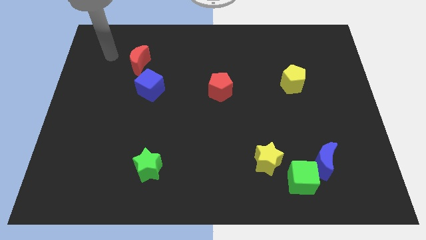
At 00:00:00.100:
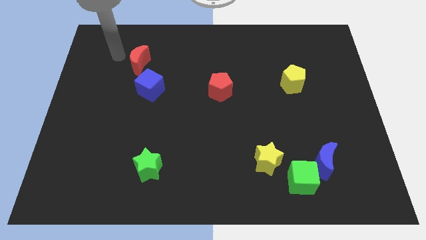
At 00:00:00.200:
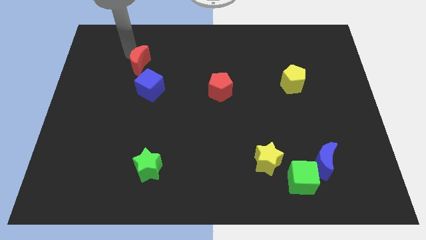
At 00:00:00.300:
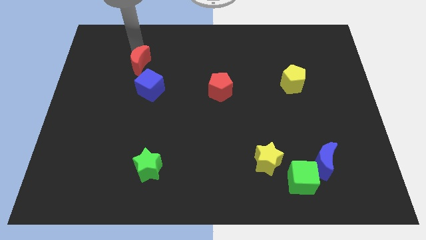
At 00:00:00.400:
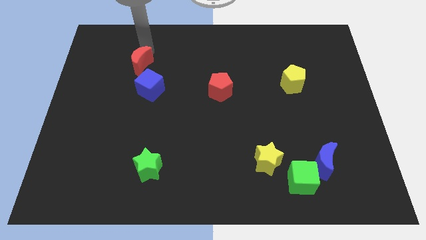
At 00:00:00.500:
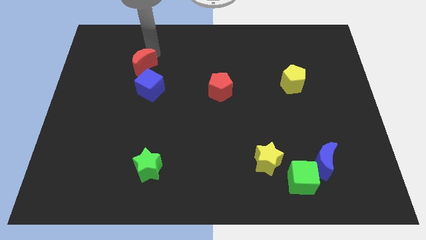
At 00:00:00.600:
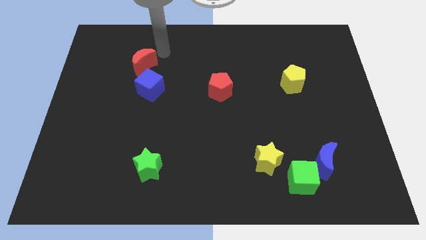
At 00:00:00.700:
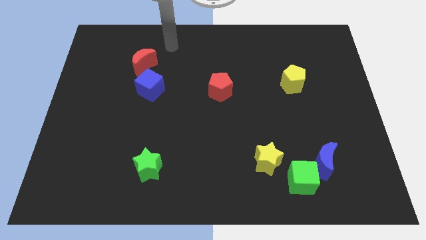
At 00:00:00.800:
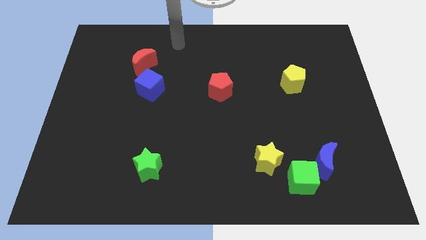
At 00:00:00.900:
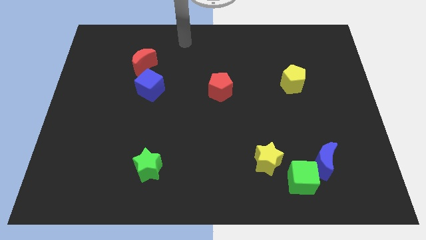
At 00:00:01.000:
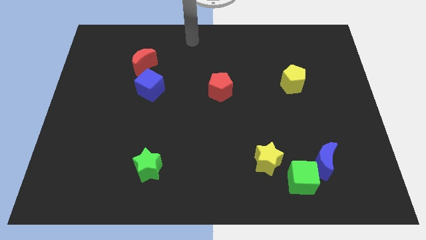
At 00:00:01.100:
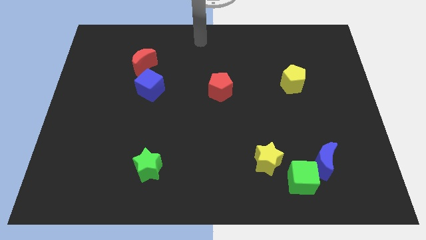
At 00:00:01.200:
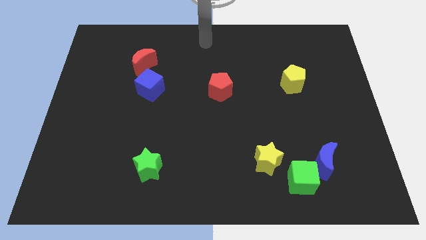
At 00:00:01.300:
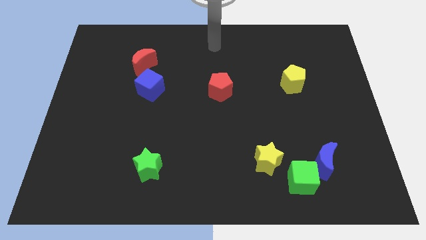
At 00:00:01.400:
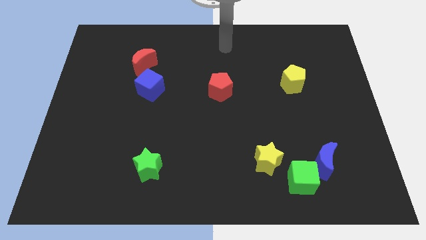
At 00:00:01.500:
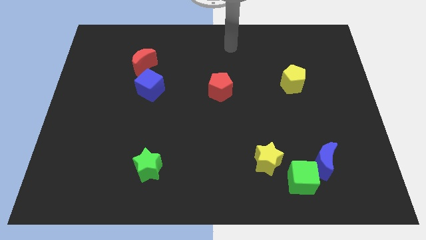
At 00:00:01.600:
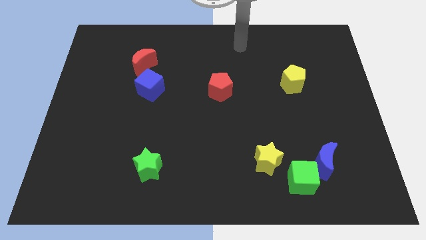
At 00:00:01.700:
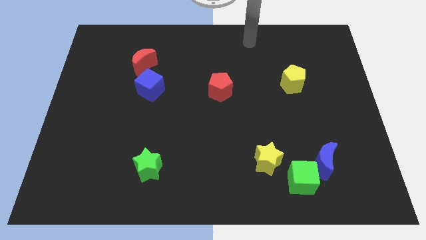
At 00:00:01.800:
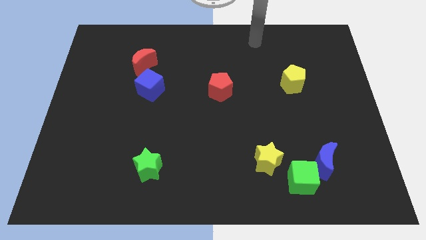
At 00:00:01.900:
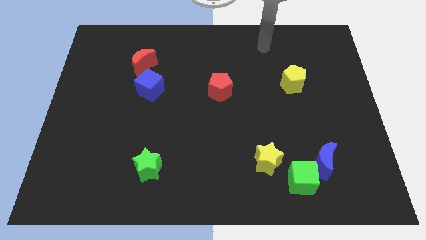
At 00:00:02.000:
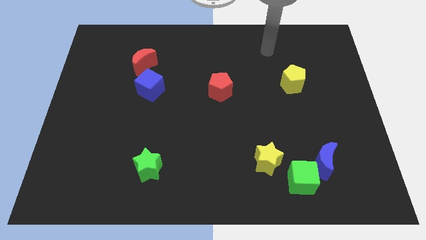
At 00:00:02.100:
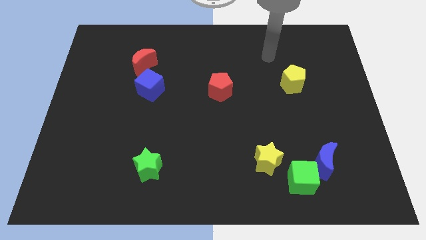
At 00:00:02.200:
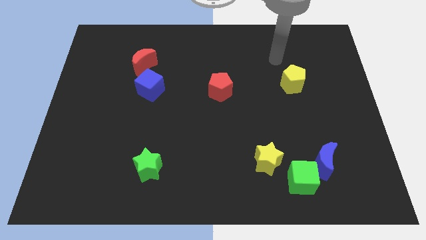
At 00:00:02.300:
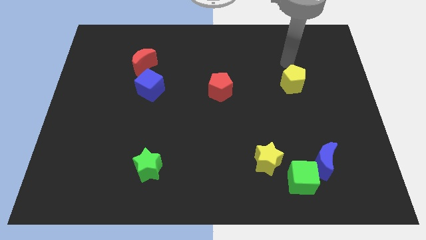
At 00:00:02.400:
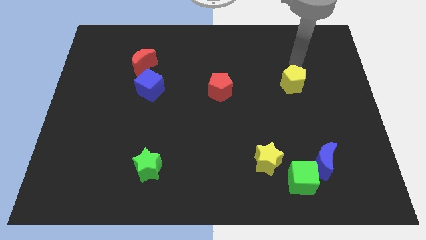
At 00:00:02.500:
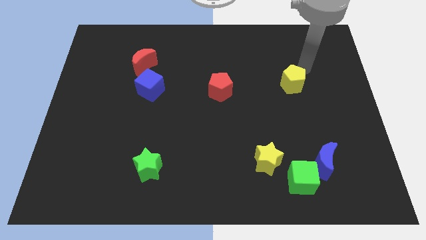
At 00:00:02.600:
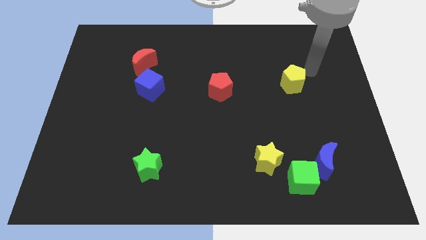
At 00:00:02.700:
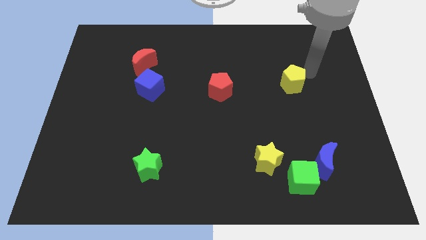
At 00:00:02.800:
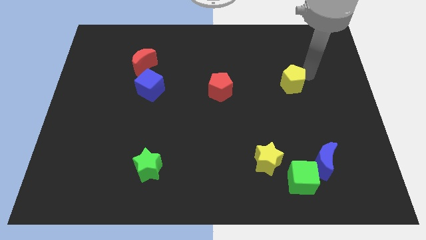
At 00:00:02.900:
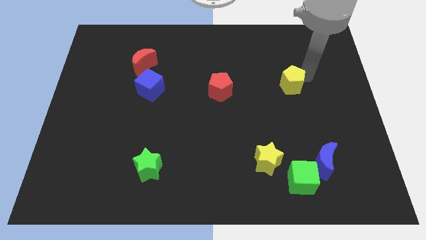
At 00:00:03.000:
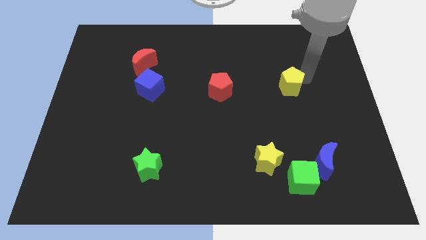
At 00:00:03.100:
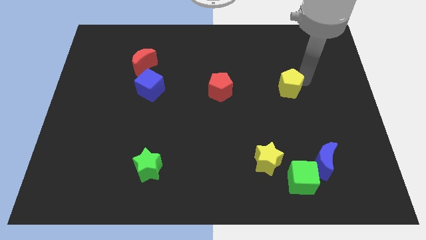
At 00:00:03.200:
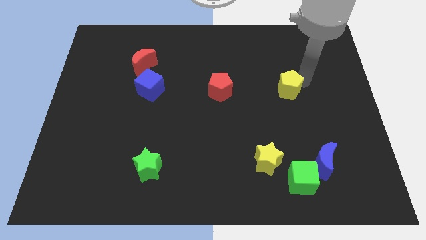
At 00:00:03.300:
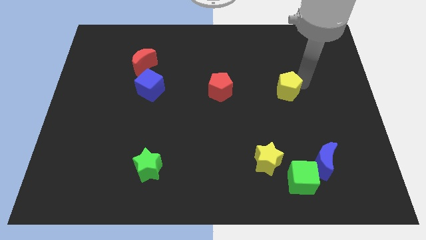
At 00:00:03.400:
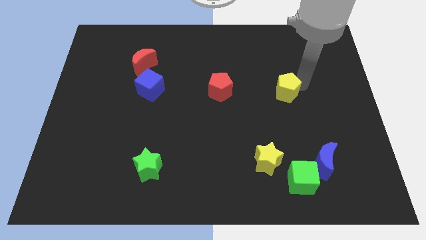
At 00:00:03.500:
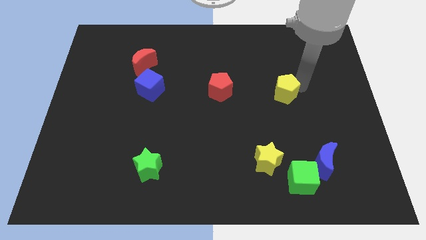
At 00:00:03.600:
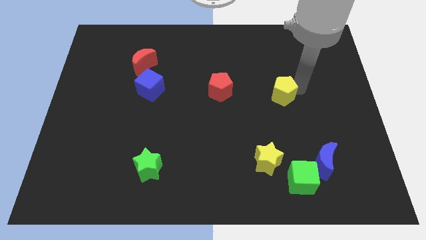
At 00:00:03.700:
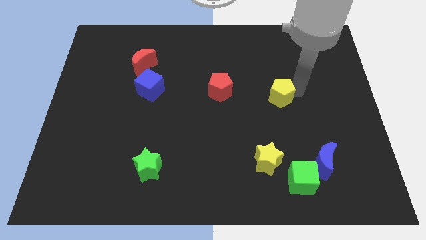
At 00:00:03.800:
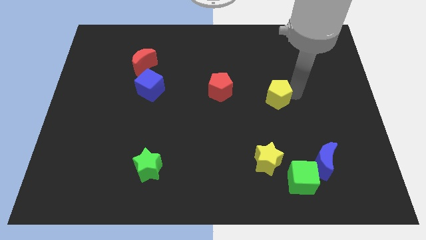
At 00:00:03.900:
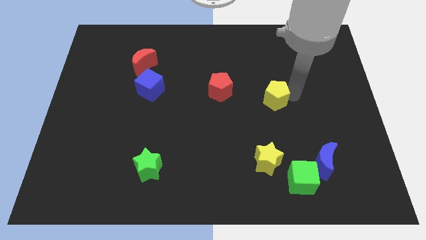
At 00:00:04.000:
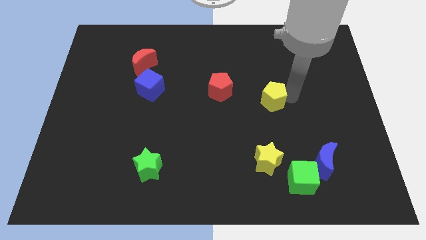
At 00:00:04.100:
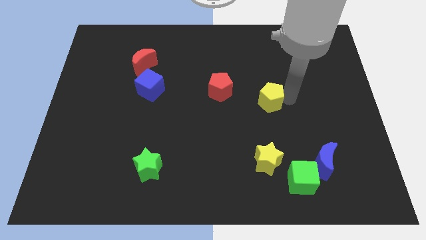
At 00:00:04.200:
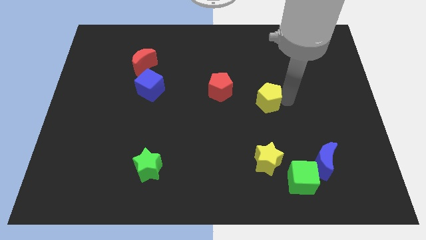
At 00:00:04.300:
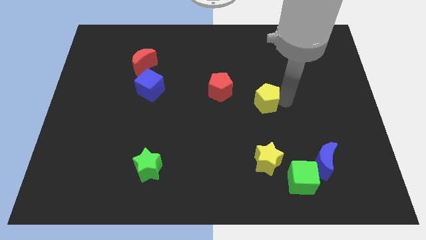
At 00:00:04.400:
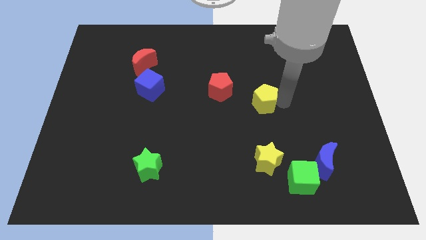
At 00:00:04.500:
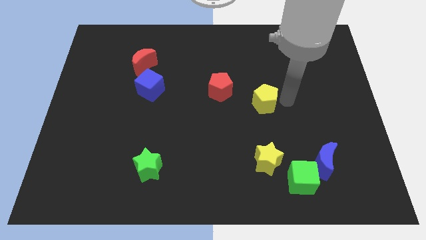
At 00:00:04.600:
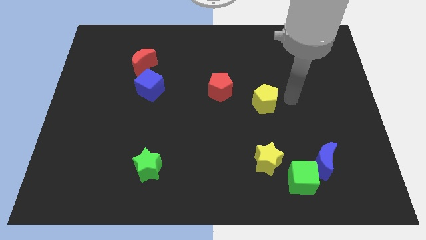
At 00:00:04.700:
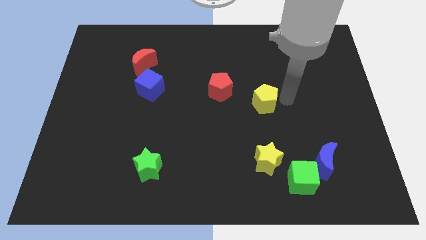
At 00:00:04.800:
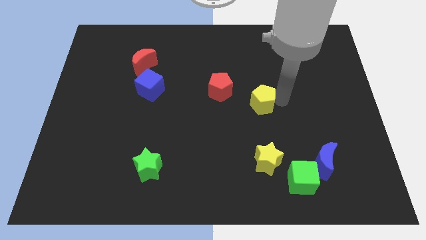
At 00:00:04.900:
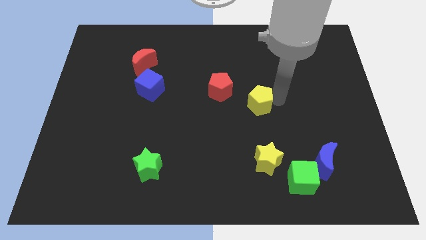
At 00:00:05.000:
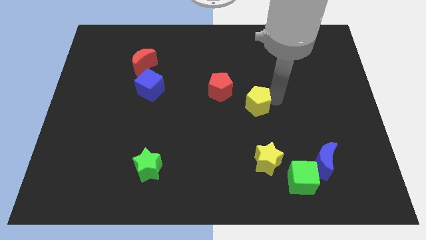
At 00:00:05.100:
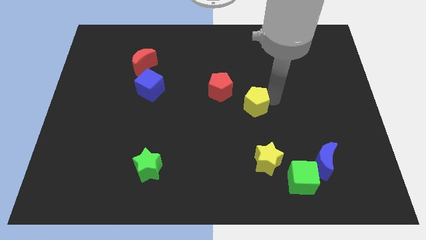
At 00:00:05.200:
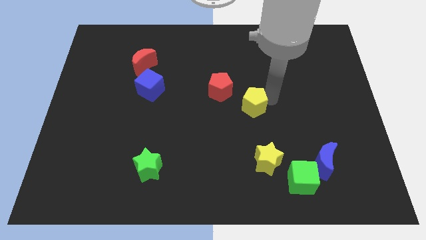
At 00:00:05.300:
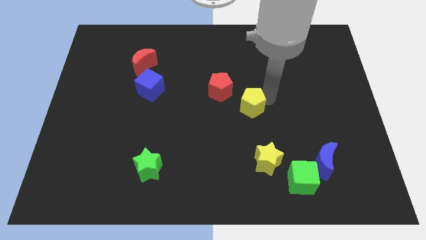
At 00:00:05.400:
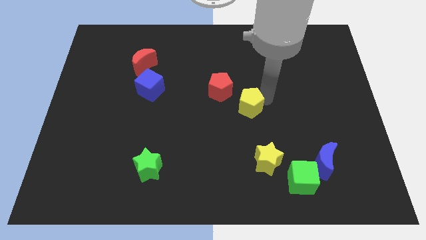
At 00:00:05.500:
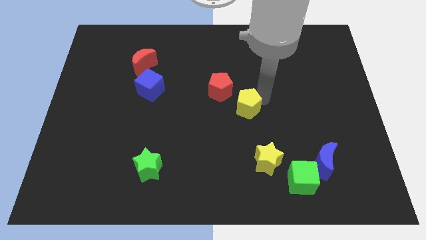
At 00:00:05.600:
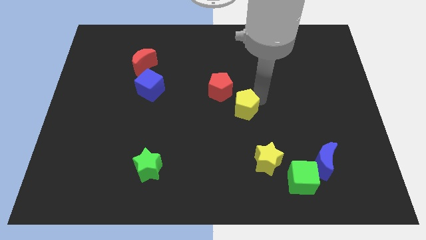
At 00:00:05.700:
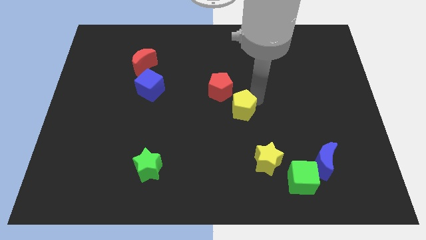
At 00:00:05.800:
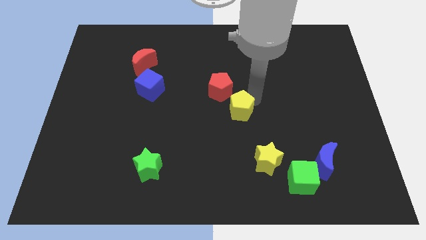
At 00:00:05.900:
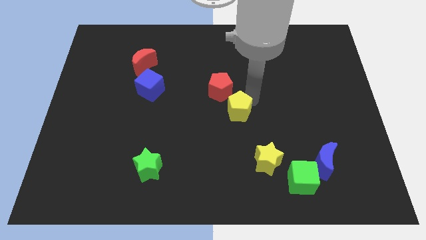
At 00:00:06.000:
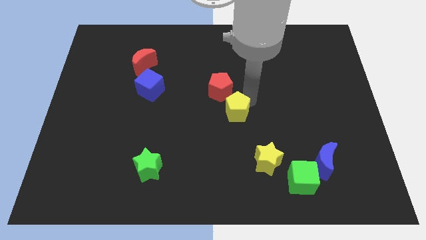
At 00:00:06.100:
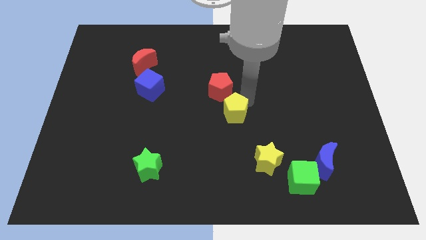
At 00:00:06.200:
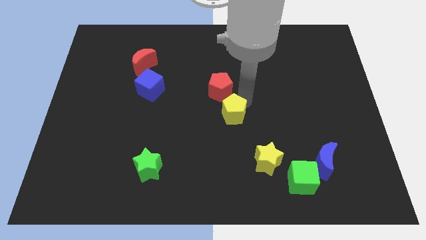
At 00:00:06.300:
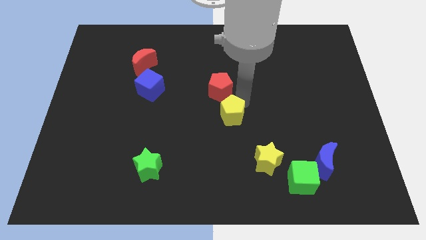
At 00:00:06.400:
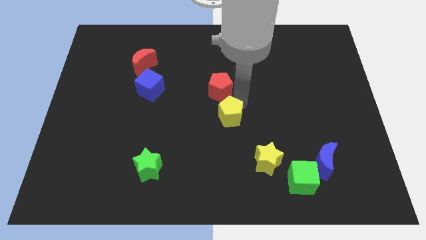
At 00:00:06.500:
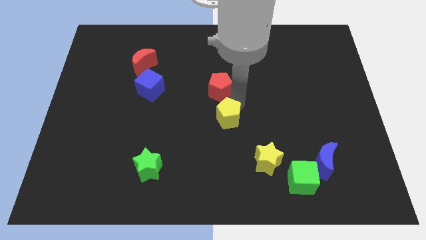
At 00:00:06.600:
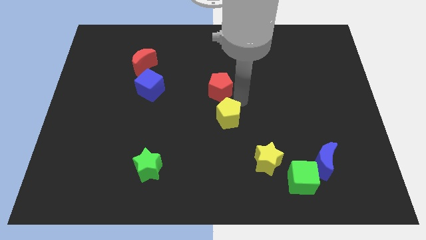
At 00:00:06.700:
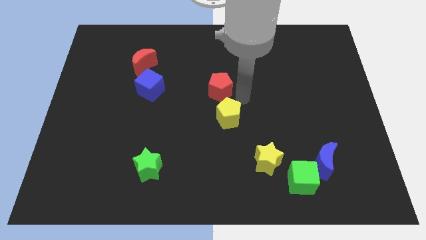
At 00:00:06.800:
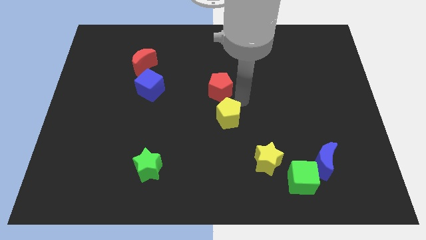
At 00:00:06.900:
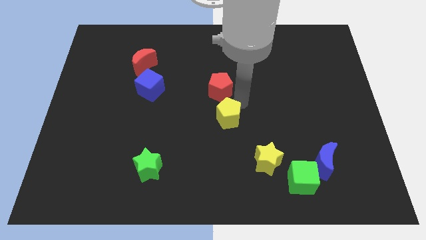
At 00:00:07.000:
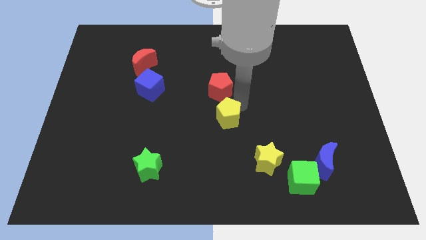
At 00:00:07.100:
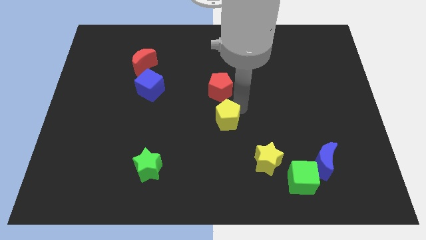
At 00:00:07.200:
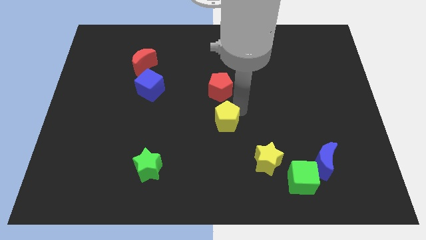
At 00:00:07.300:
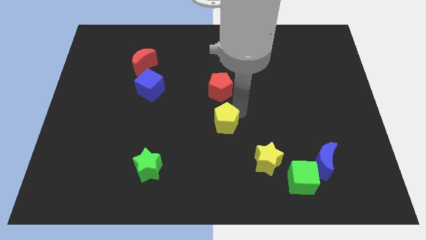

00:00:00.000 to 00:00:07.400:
move the yellow pentagon diagonally down and to the left

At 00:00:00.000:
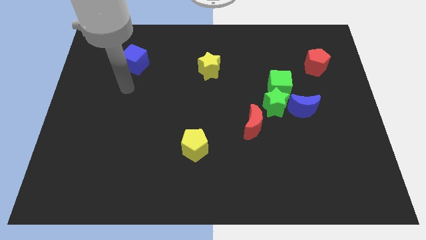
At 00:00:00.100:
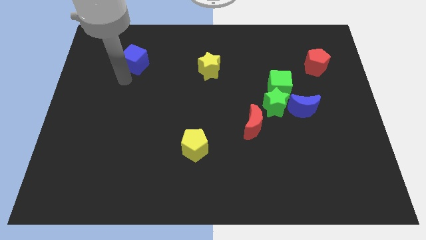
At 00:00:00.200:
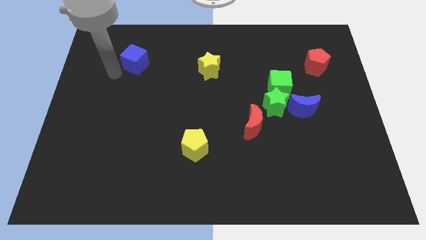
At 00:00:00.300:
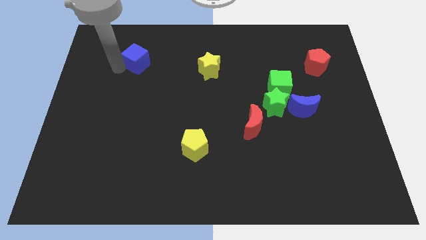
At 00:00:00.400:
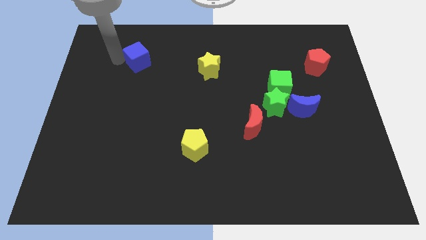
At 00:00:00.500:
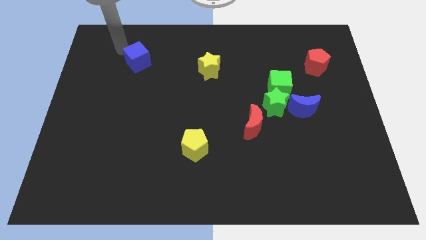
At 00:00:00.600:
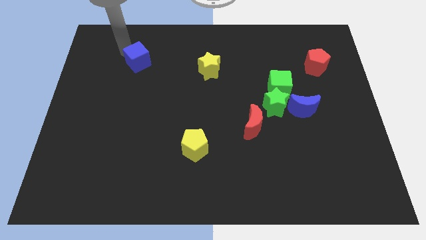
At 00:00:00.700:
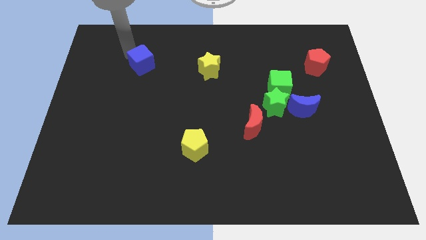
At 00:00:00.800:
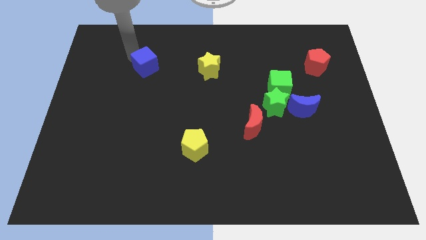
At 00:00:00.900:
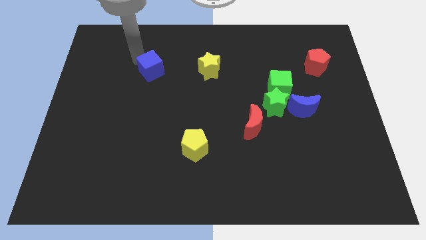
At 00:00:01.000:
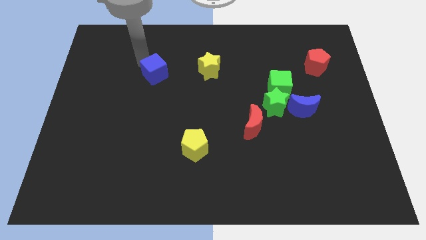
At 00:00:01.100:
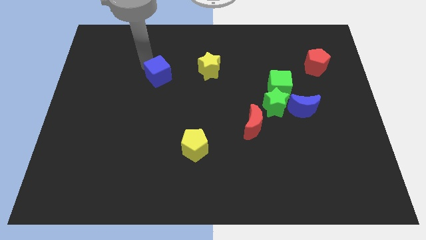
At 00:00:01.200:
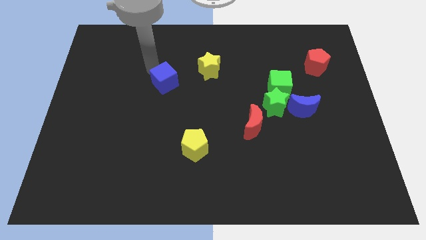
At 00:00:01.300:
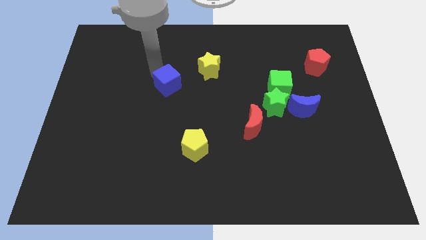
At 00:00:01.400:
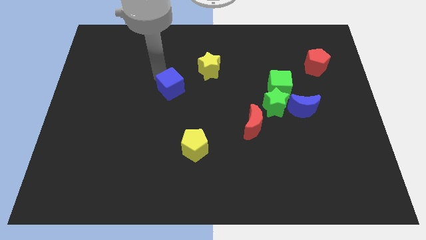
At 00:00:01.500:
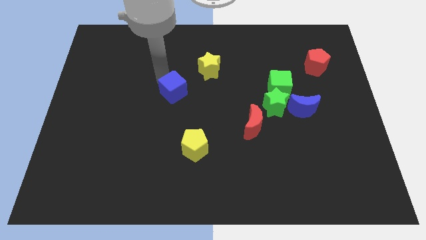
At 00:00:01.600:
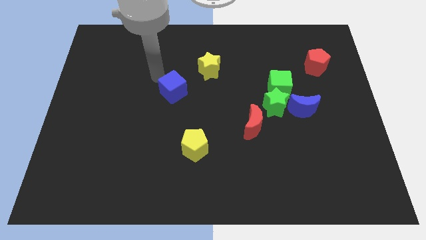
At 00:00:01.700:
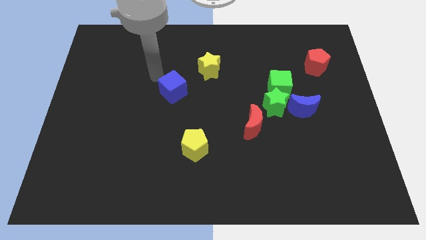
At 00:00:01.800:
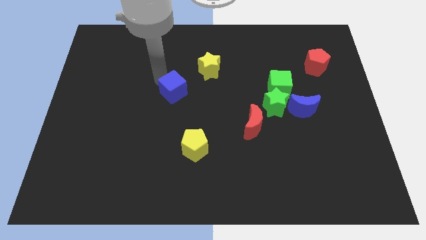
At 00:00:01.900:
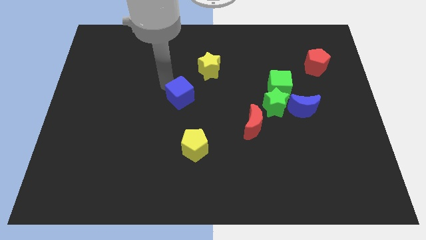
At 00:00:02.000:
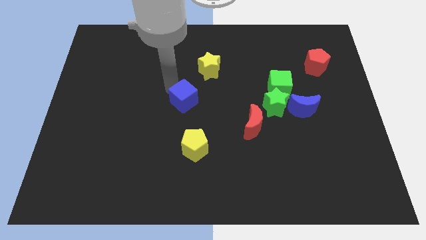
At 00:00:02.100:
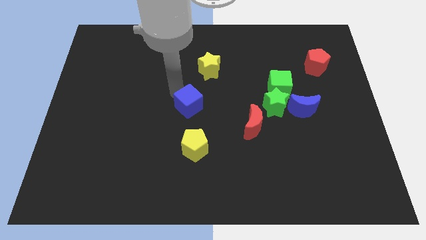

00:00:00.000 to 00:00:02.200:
push the blue cube down and to the right diagonally
